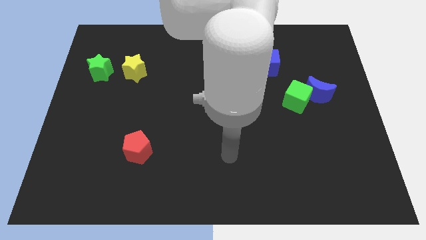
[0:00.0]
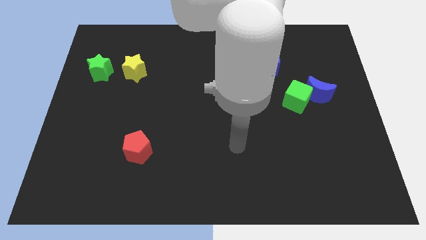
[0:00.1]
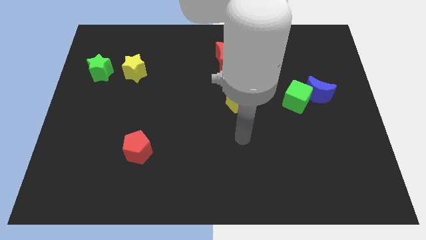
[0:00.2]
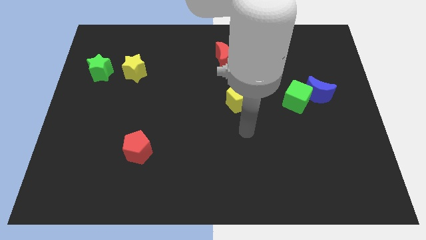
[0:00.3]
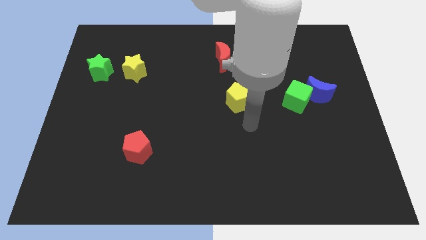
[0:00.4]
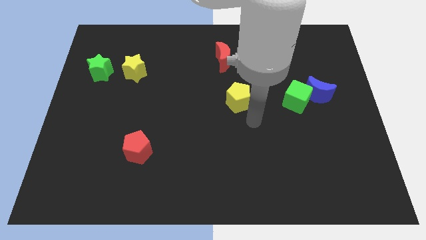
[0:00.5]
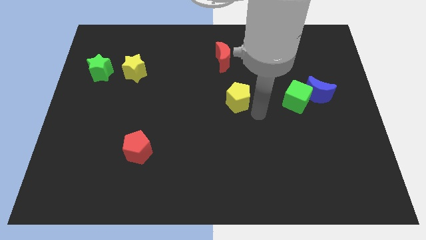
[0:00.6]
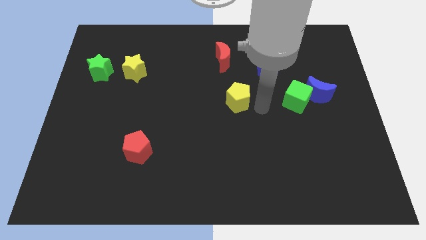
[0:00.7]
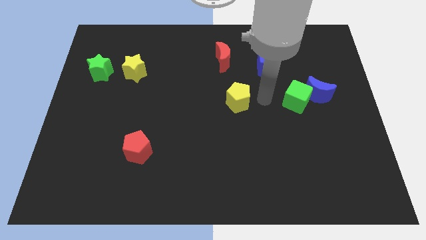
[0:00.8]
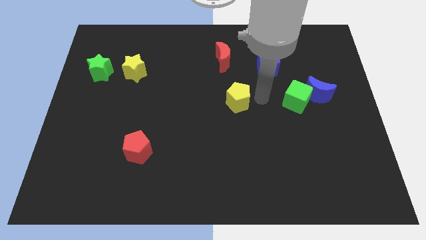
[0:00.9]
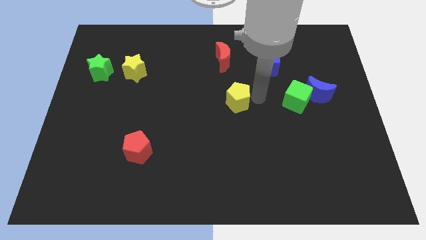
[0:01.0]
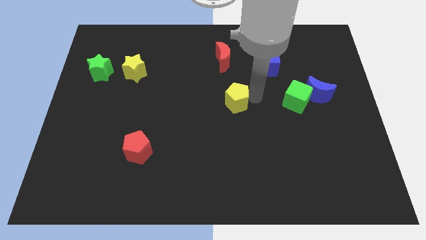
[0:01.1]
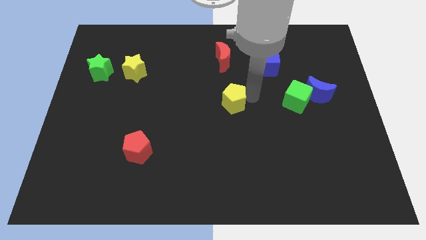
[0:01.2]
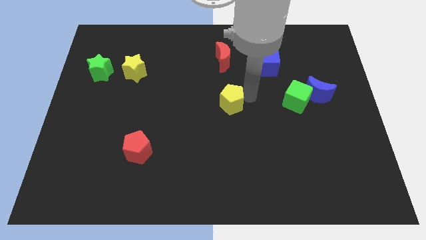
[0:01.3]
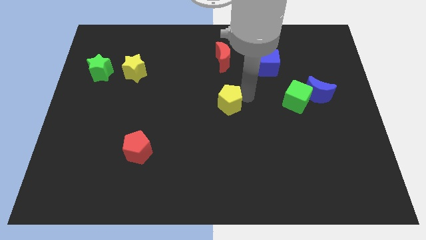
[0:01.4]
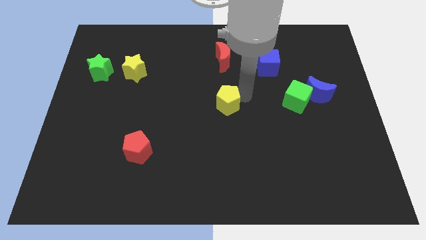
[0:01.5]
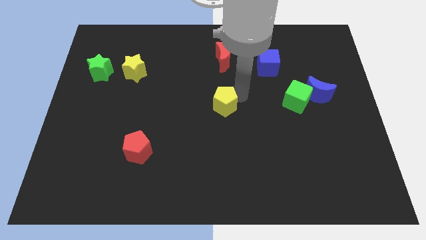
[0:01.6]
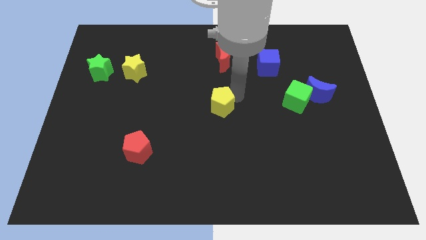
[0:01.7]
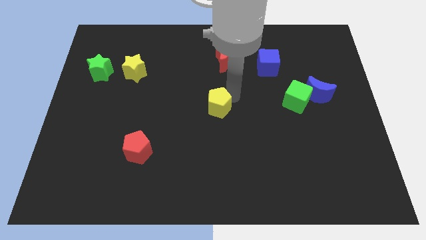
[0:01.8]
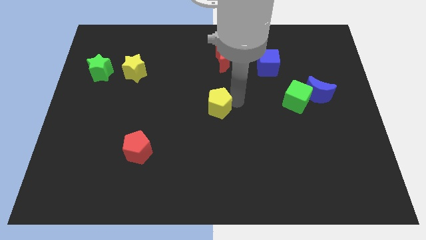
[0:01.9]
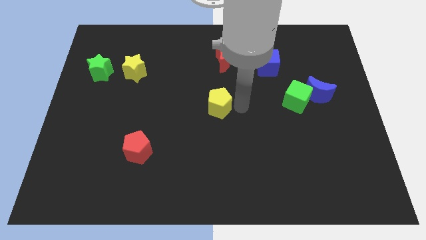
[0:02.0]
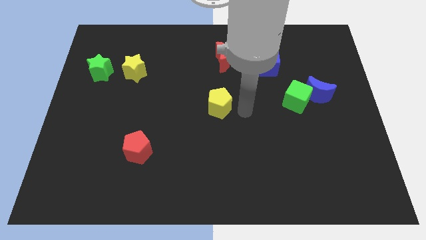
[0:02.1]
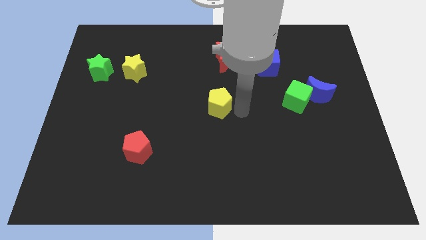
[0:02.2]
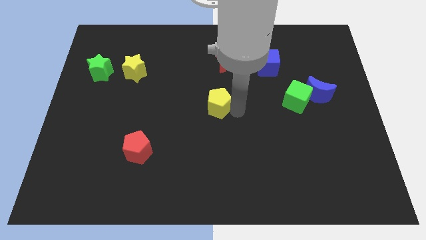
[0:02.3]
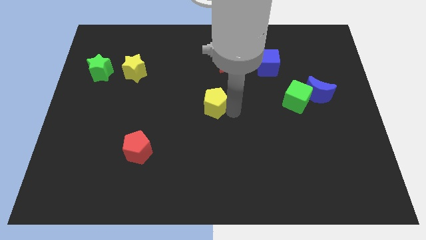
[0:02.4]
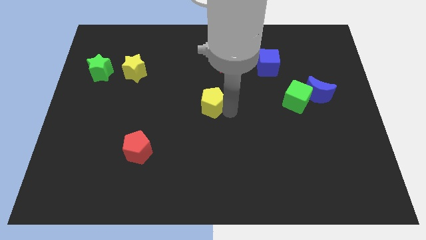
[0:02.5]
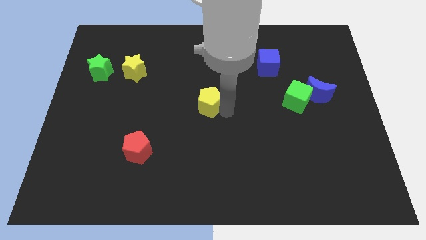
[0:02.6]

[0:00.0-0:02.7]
slightly move the yellow pentagon left

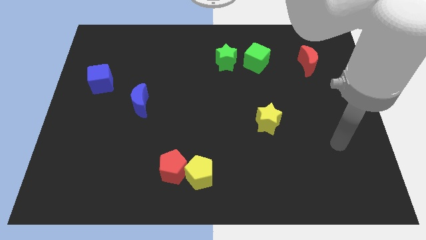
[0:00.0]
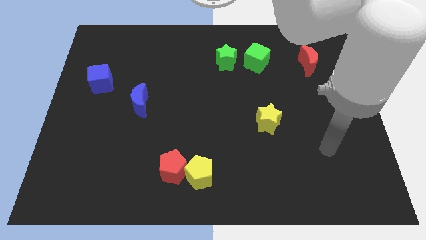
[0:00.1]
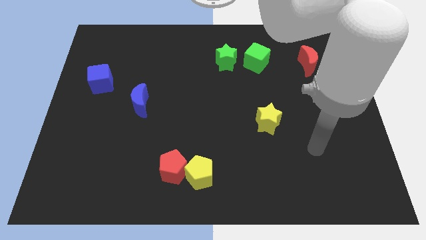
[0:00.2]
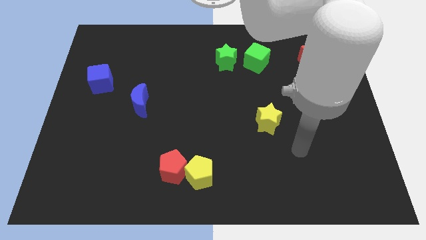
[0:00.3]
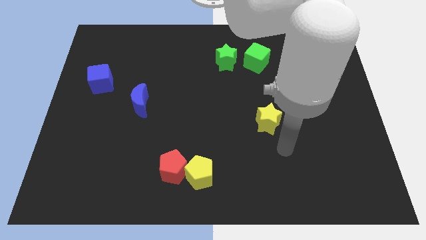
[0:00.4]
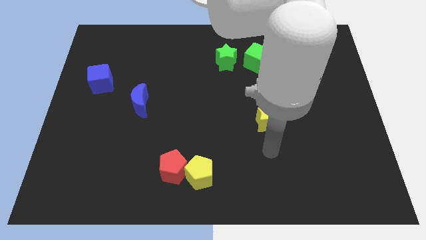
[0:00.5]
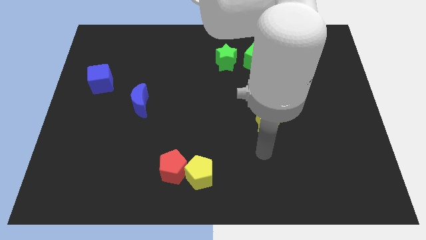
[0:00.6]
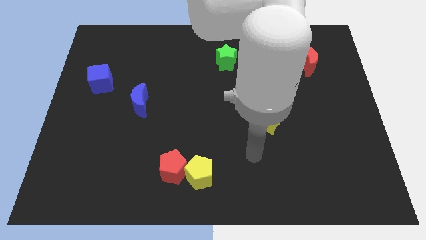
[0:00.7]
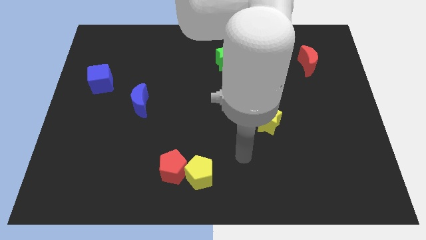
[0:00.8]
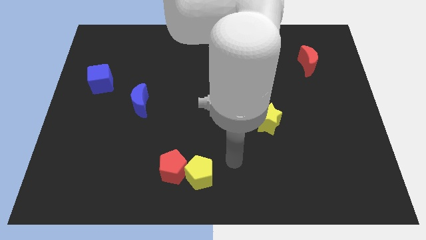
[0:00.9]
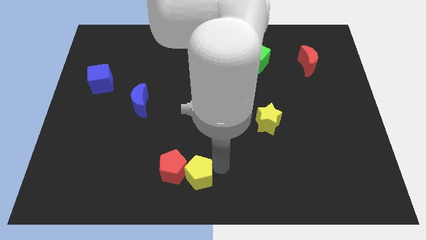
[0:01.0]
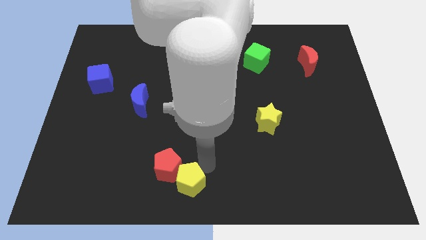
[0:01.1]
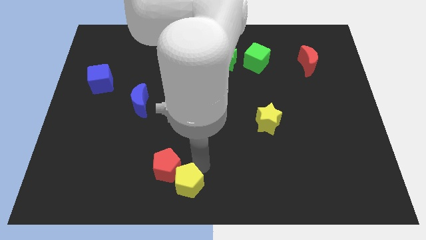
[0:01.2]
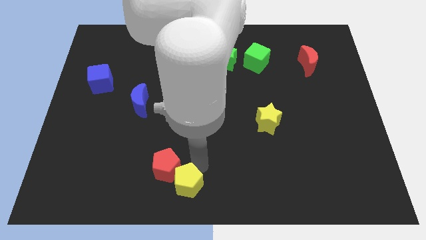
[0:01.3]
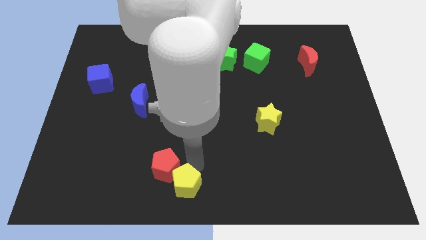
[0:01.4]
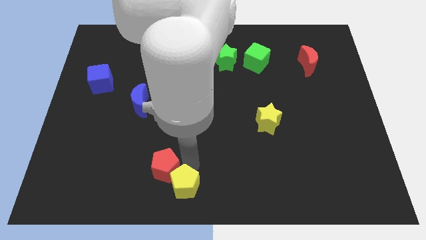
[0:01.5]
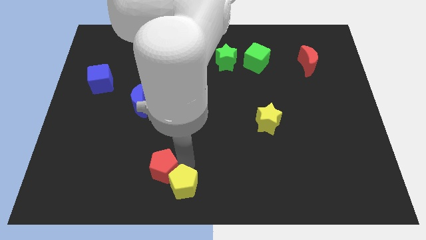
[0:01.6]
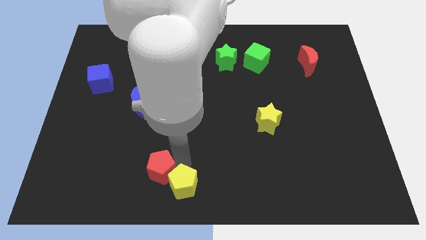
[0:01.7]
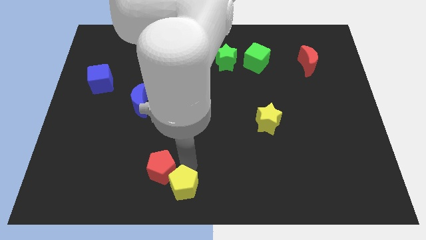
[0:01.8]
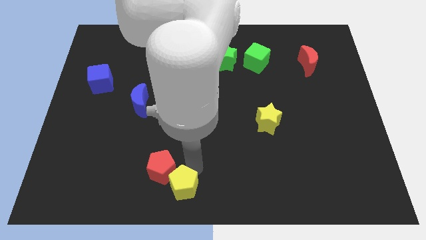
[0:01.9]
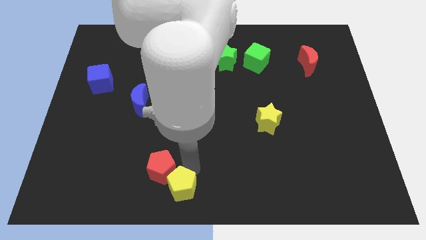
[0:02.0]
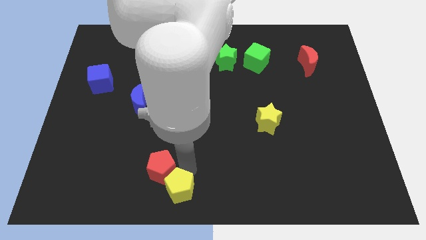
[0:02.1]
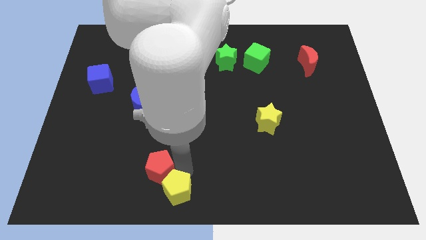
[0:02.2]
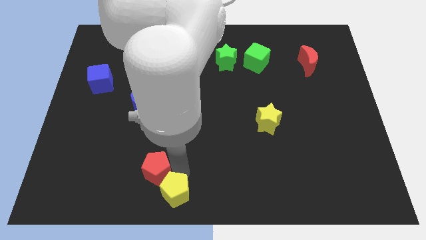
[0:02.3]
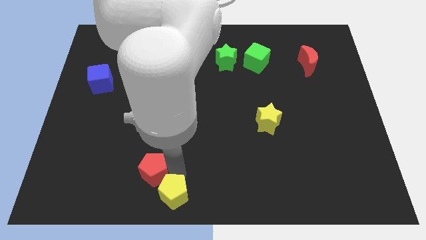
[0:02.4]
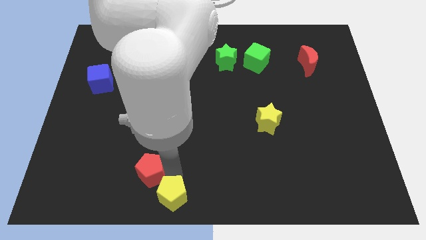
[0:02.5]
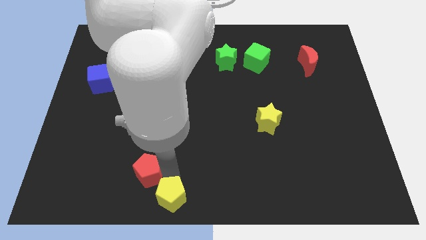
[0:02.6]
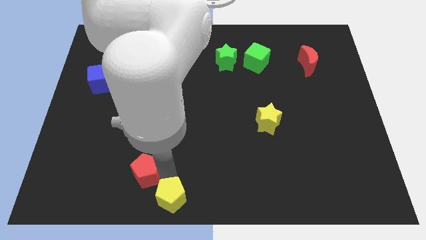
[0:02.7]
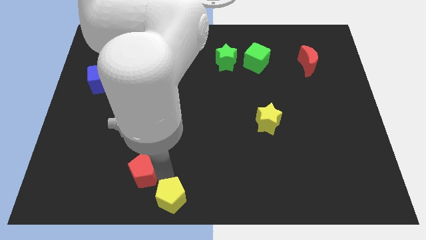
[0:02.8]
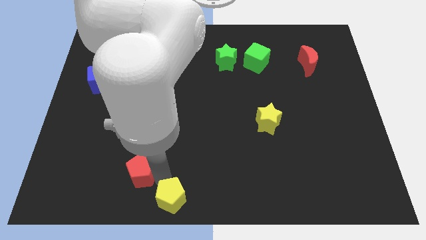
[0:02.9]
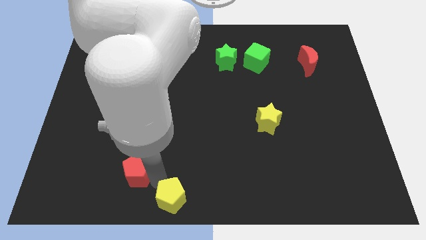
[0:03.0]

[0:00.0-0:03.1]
slide the red pentagon a little bit to the left

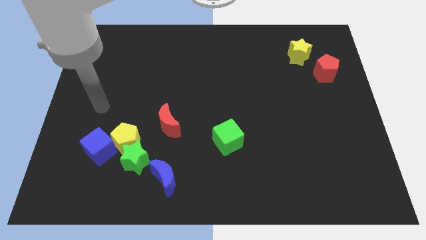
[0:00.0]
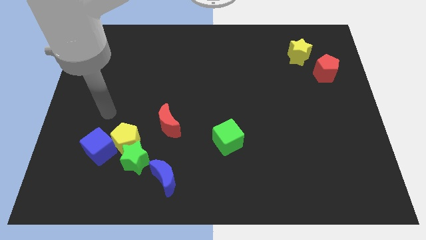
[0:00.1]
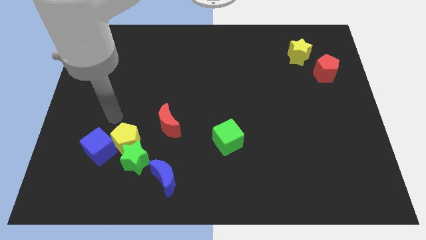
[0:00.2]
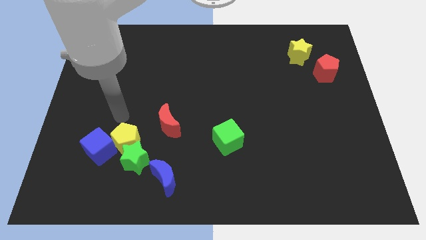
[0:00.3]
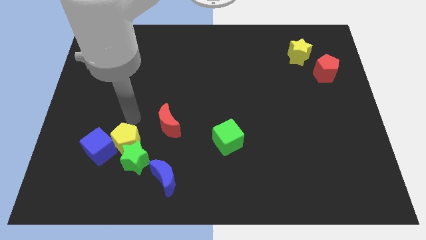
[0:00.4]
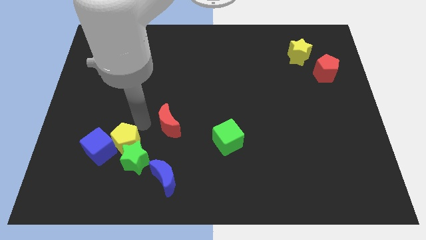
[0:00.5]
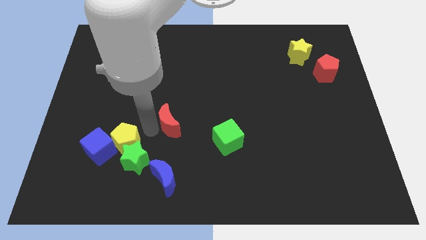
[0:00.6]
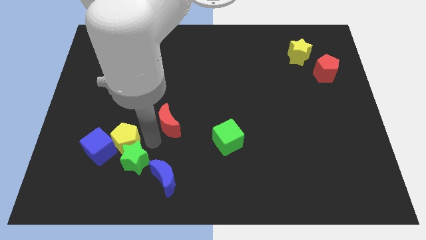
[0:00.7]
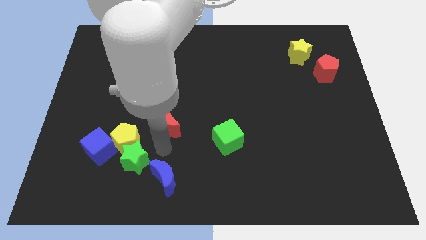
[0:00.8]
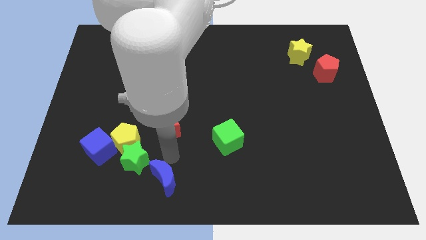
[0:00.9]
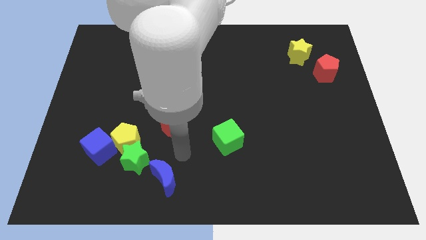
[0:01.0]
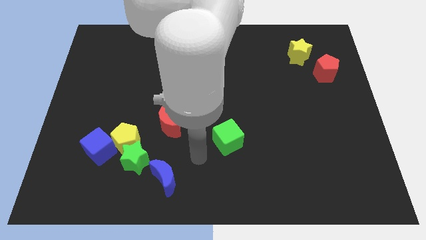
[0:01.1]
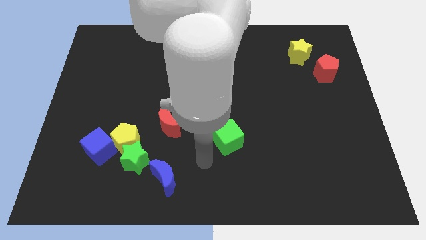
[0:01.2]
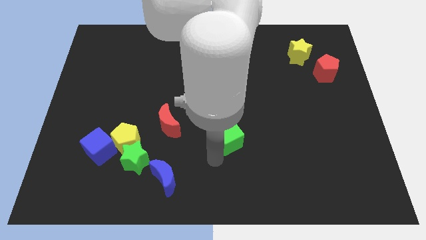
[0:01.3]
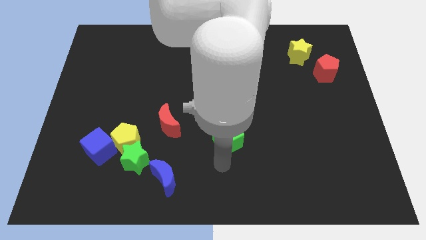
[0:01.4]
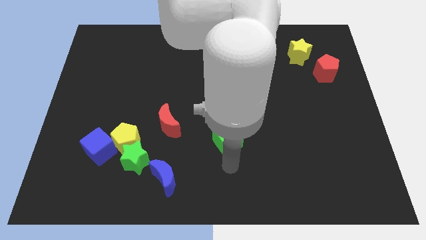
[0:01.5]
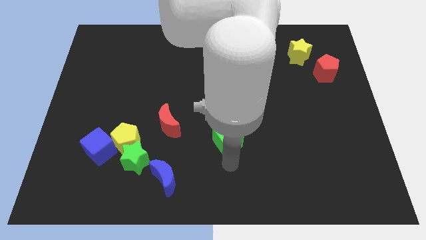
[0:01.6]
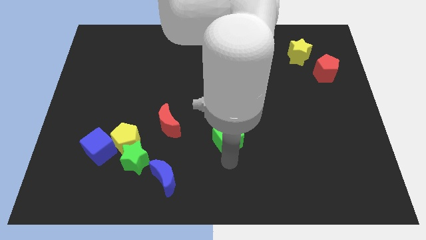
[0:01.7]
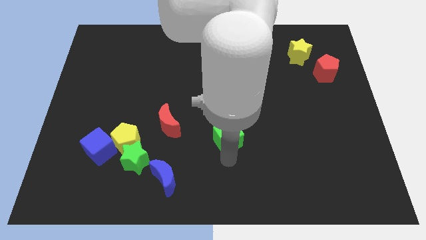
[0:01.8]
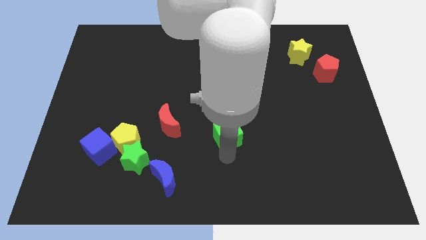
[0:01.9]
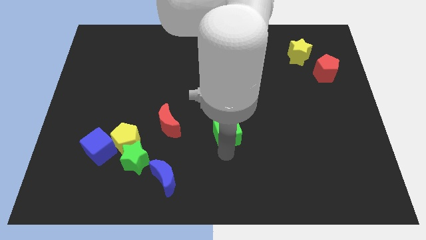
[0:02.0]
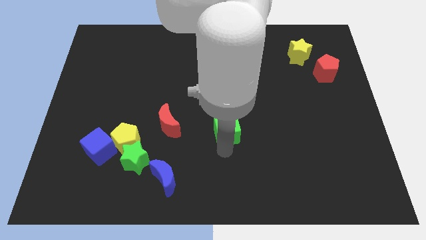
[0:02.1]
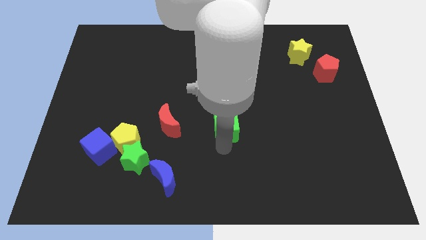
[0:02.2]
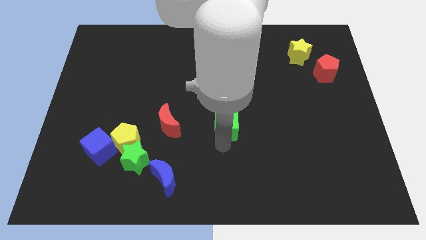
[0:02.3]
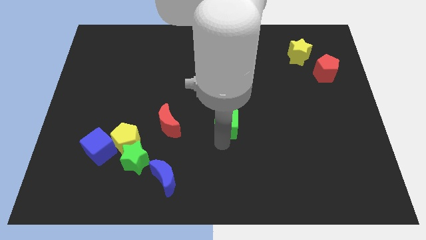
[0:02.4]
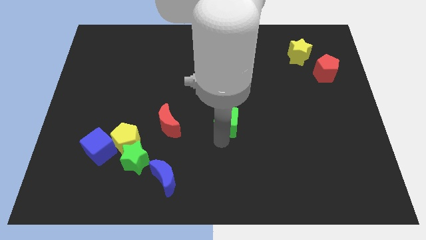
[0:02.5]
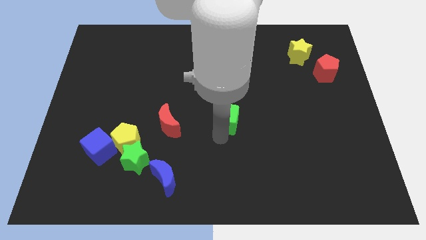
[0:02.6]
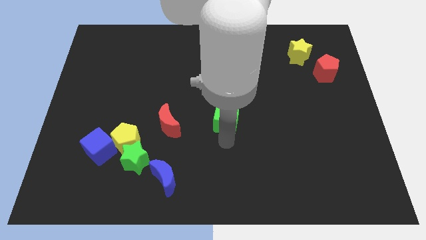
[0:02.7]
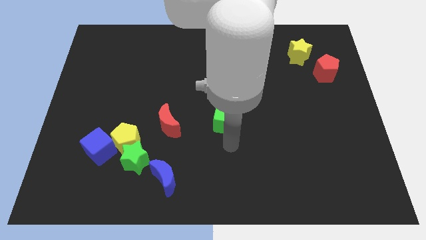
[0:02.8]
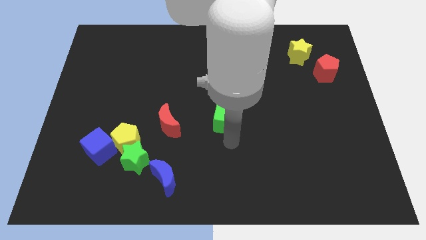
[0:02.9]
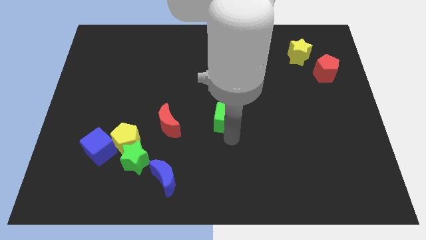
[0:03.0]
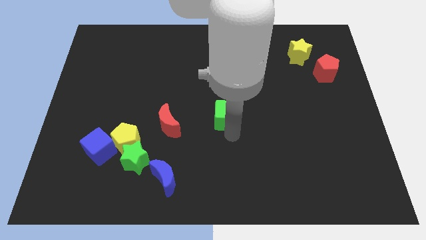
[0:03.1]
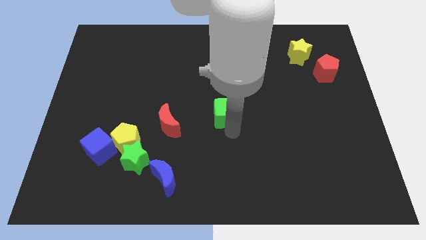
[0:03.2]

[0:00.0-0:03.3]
push the green cube a little upwards
